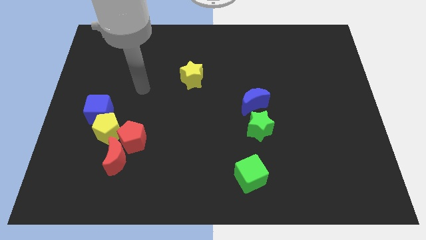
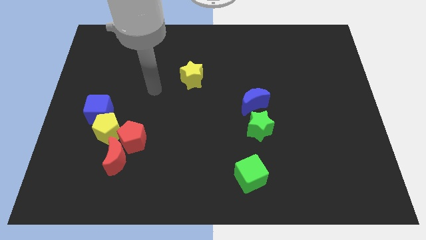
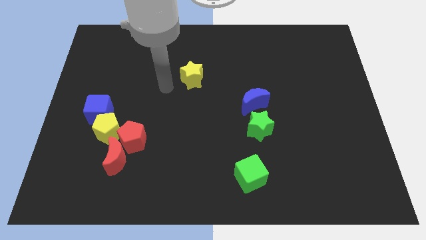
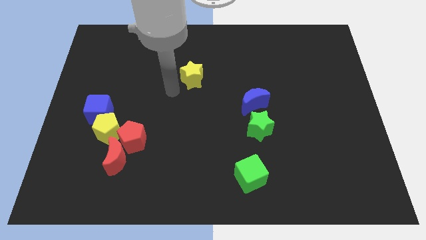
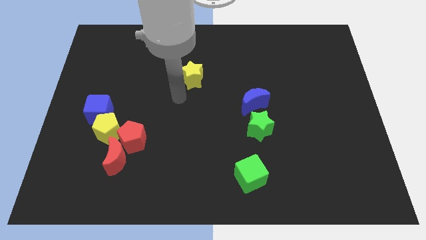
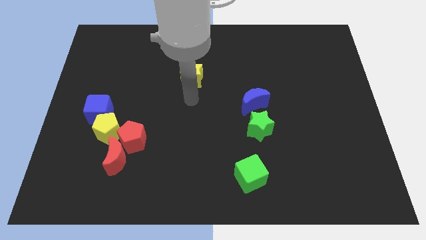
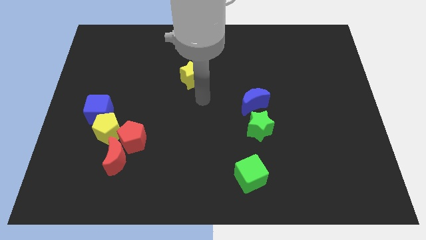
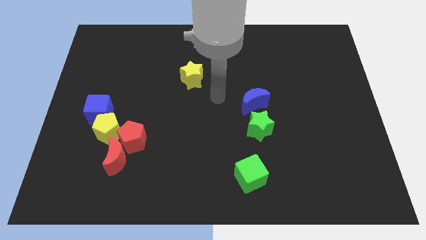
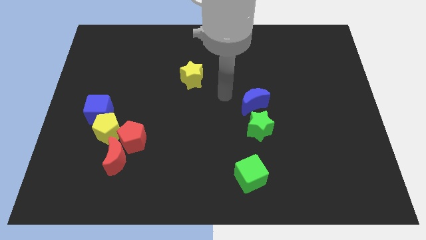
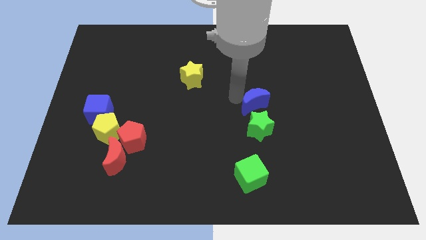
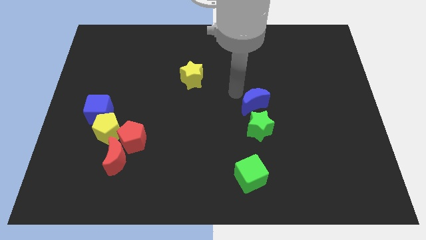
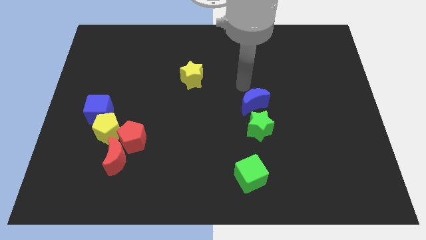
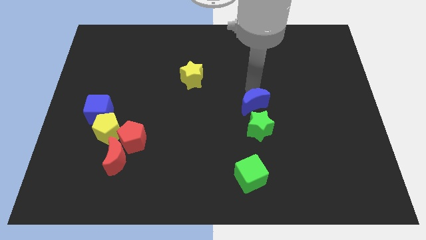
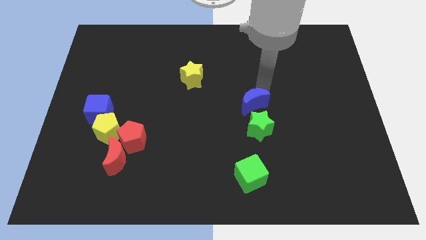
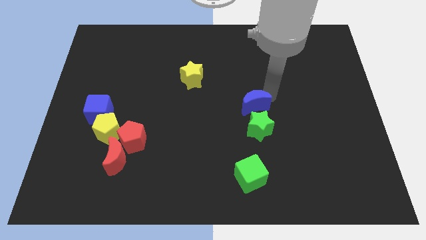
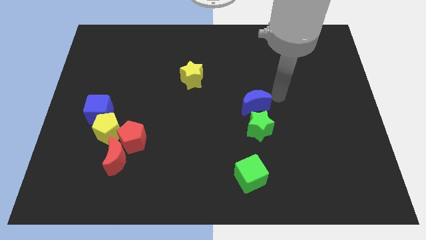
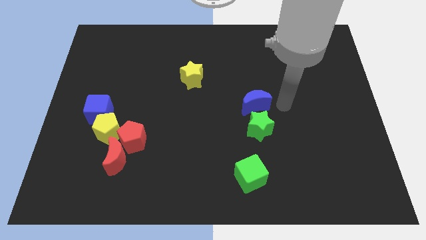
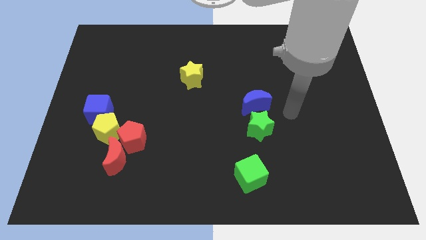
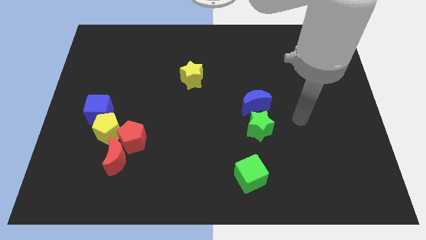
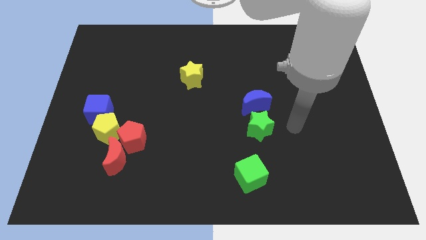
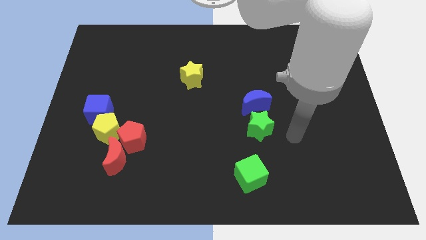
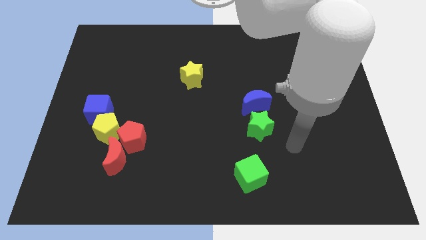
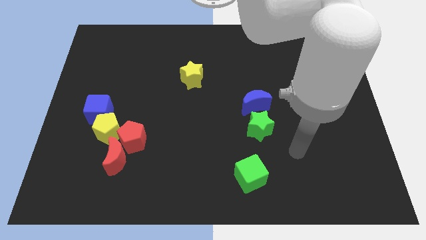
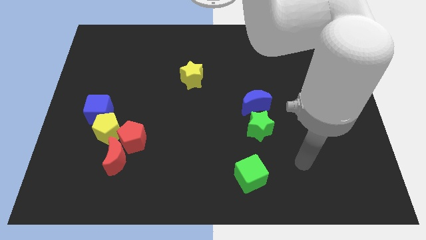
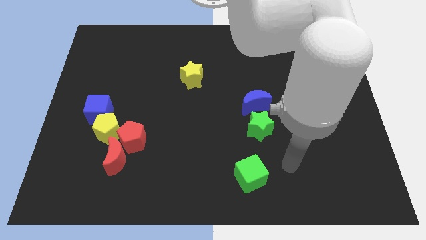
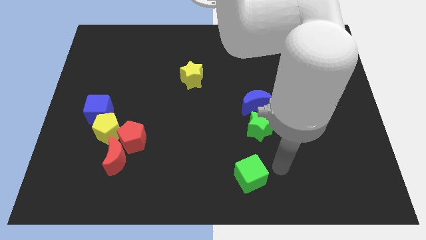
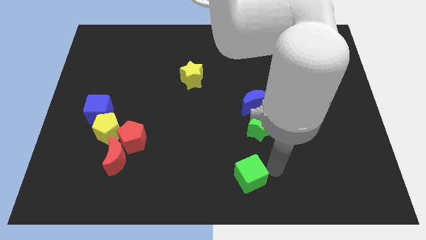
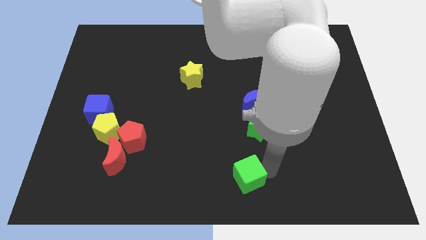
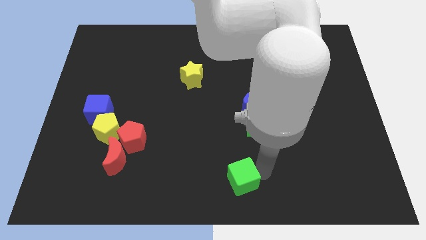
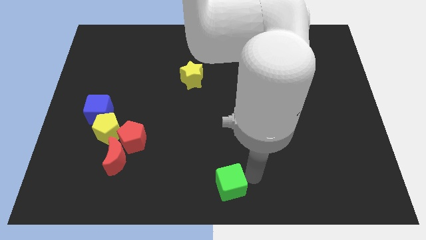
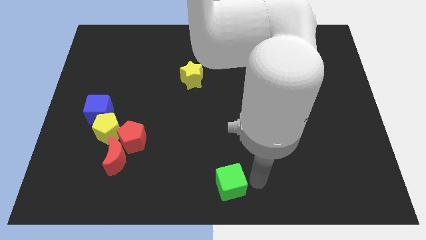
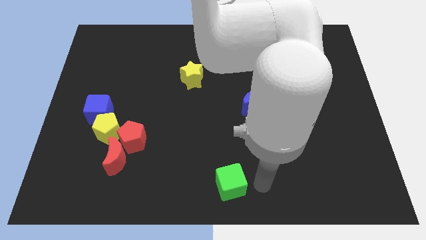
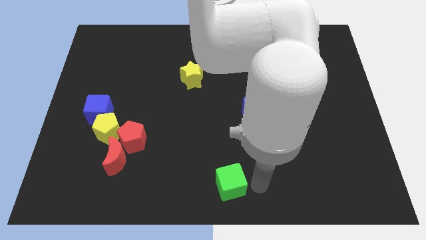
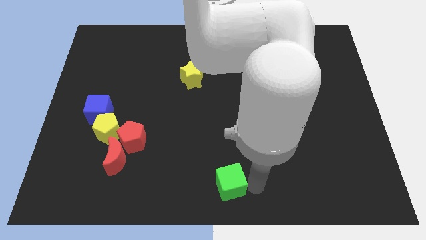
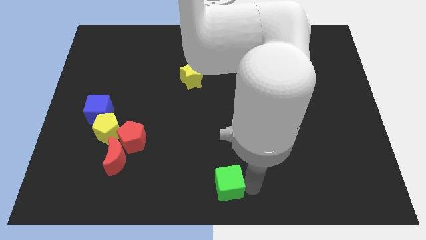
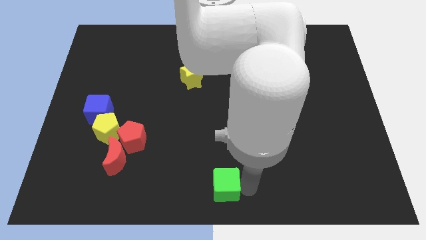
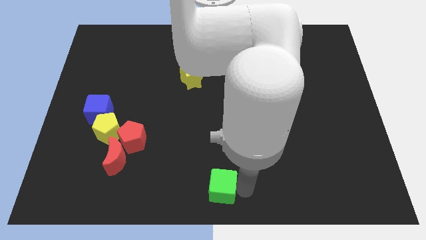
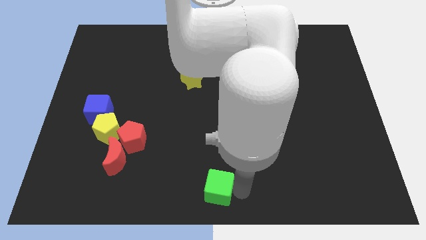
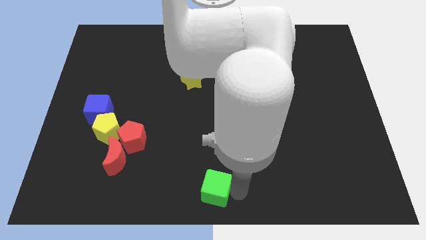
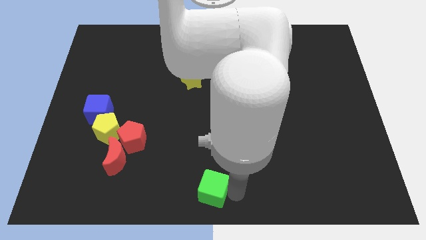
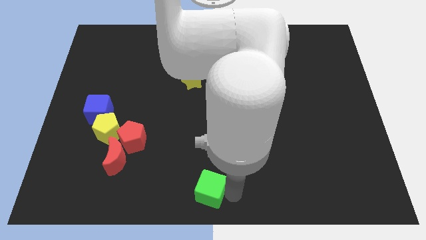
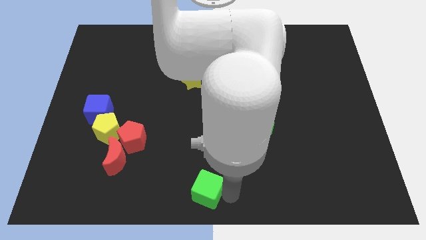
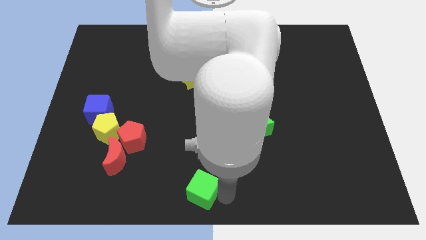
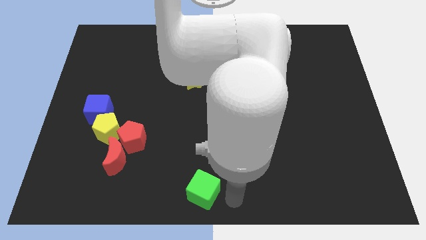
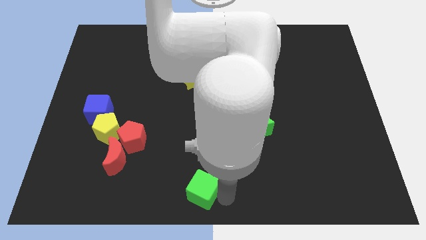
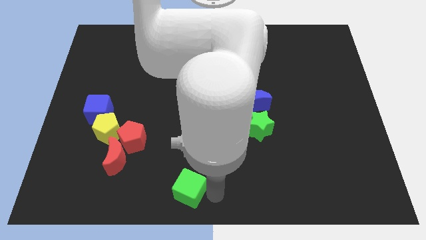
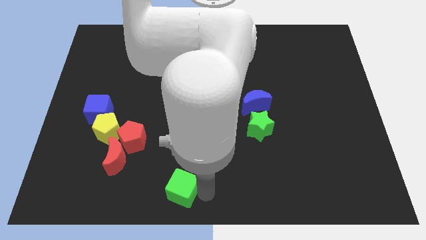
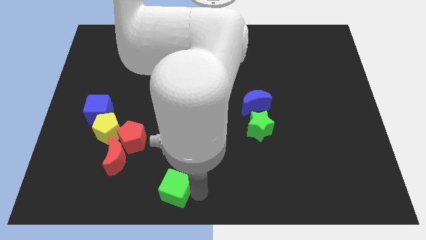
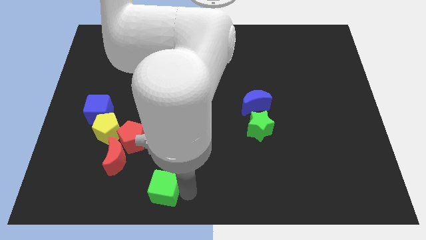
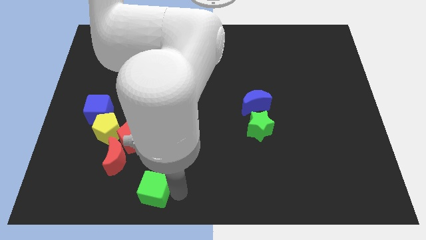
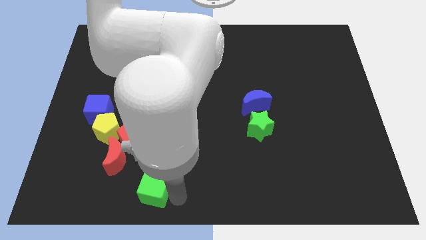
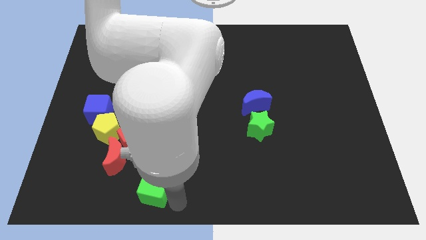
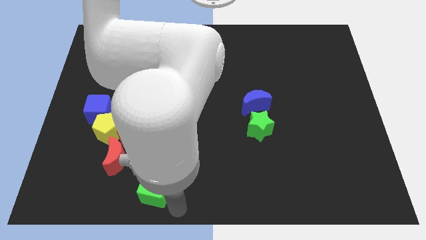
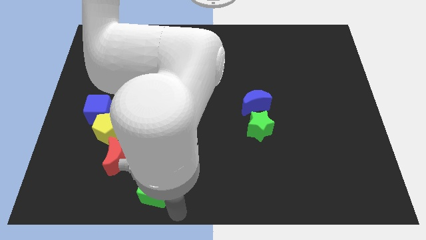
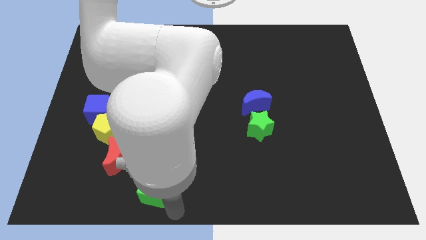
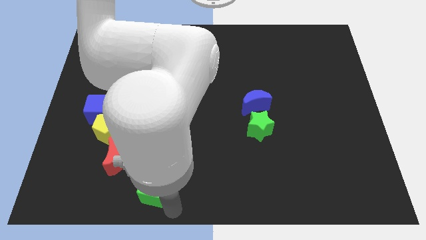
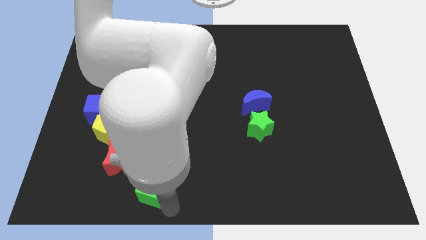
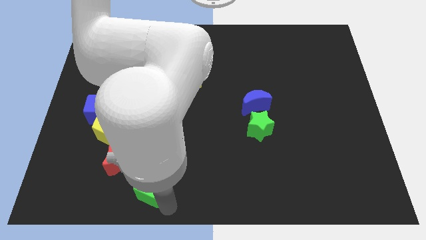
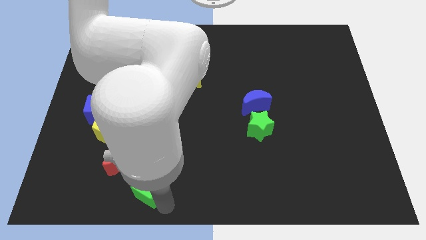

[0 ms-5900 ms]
slide the green cube left

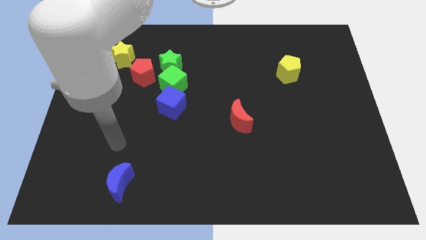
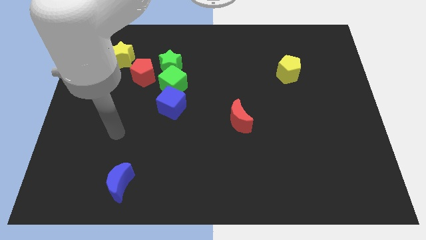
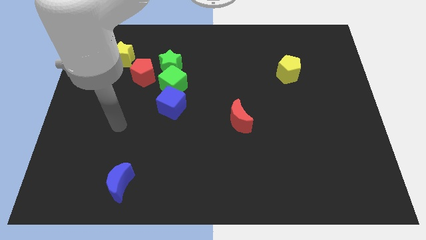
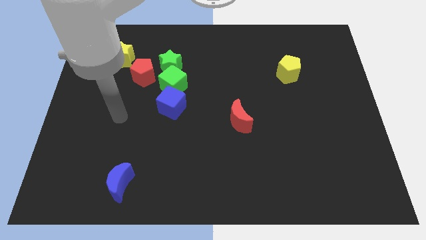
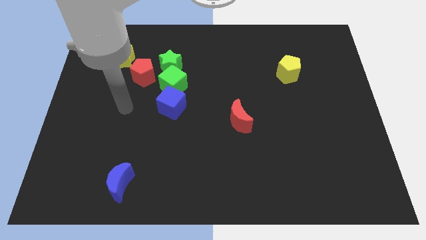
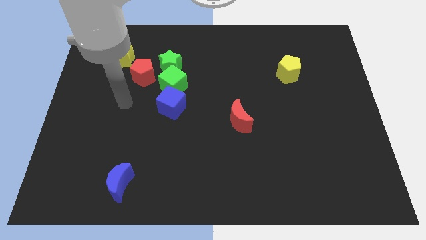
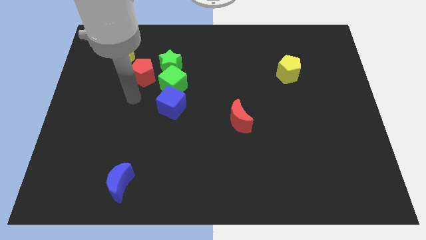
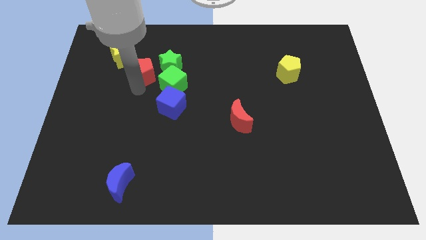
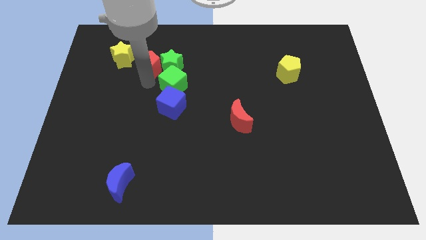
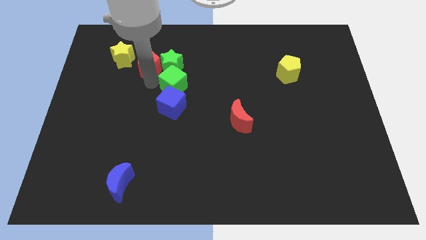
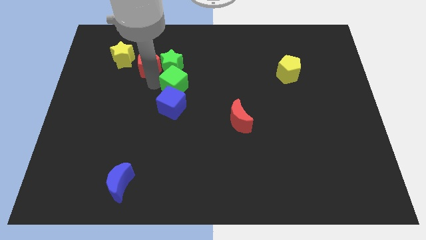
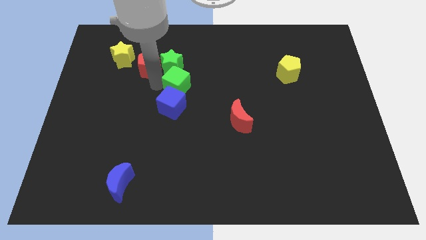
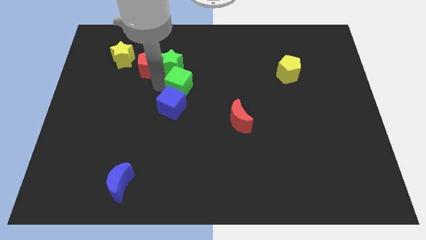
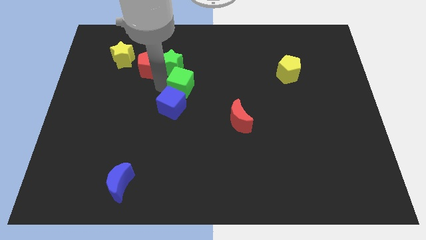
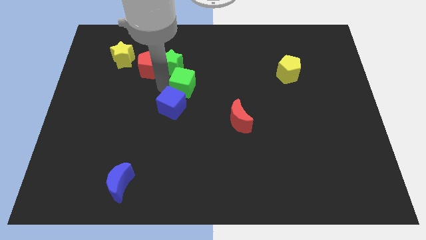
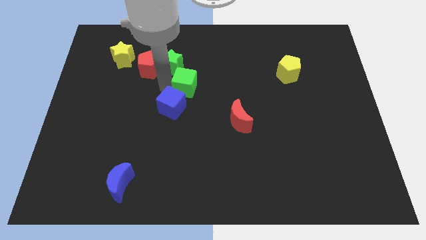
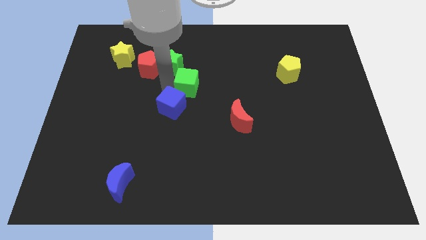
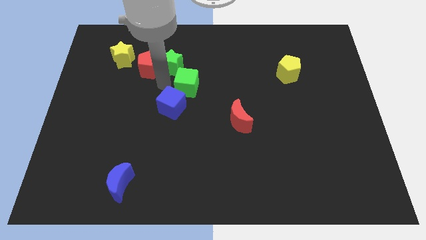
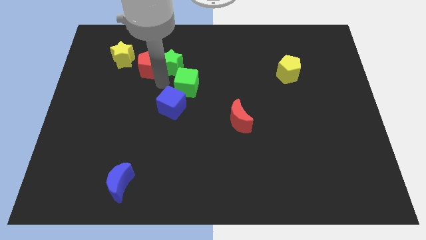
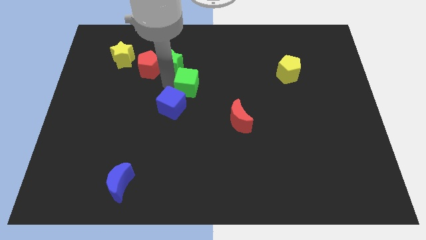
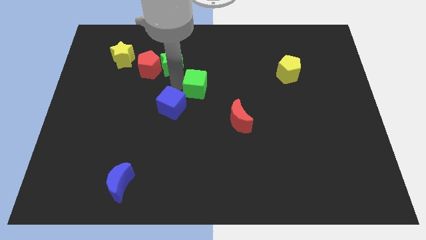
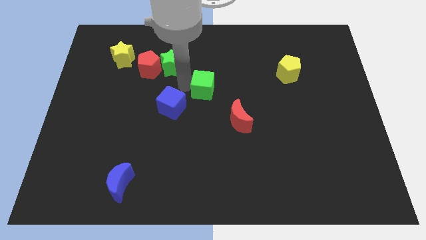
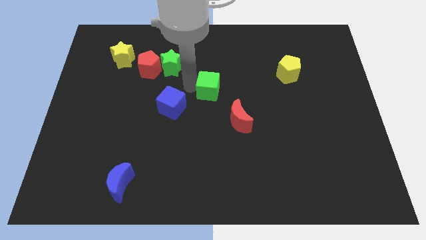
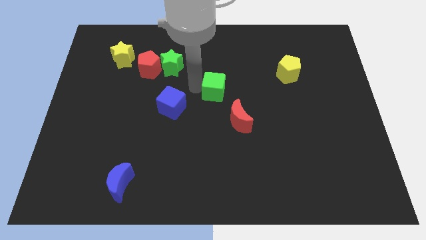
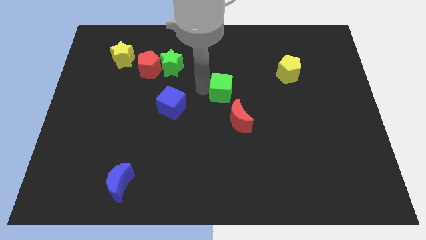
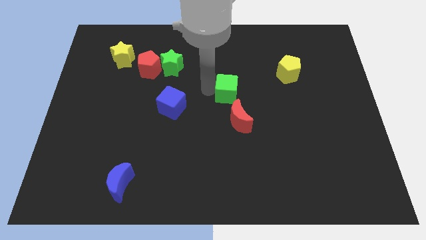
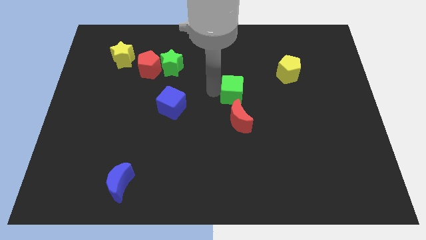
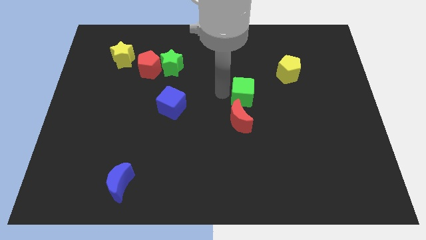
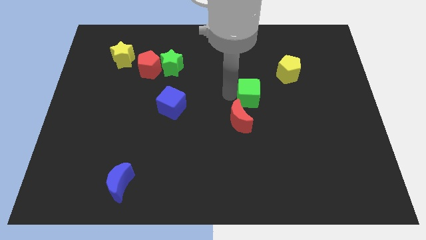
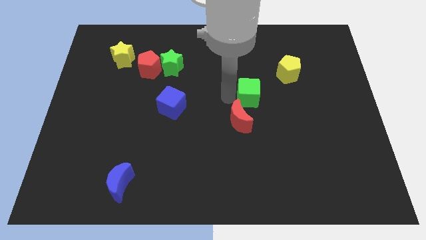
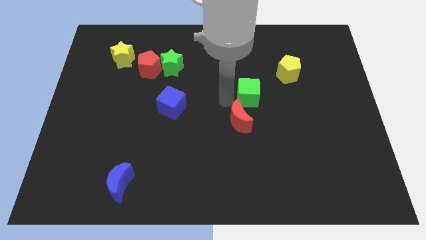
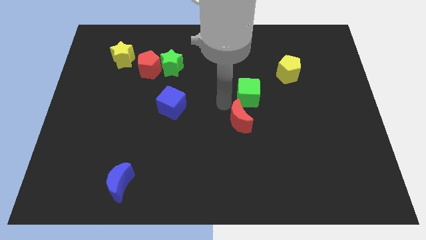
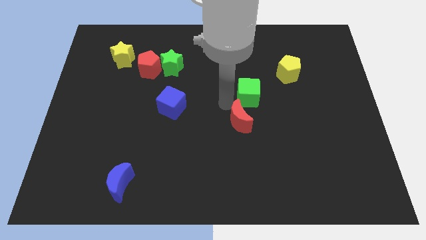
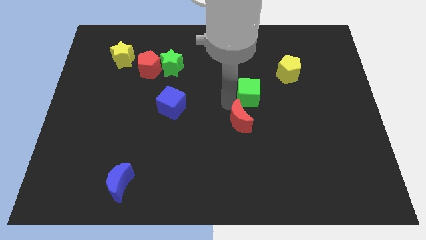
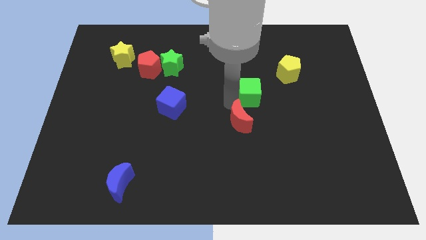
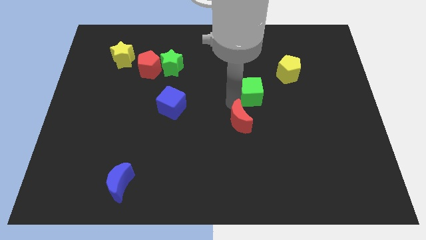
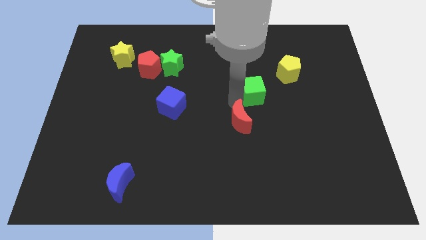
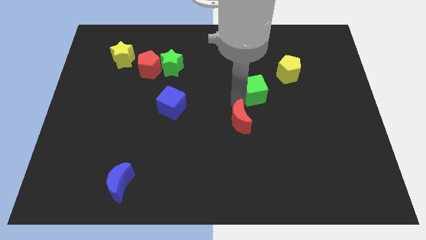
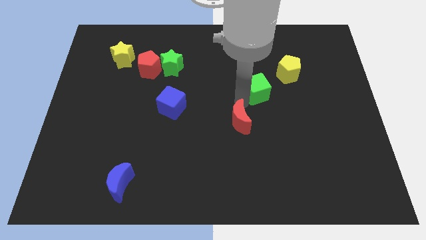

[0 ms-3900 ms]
slide the green cube right
